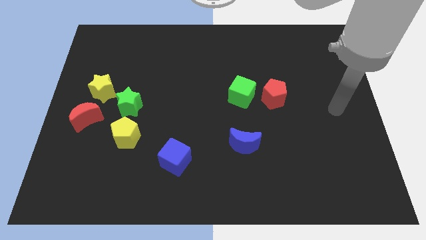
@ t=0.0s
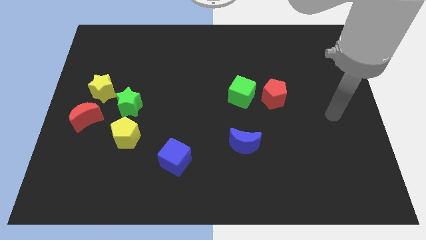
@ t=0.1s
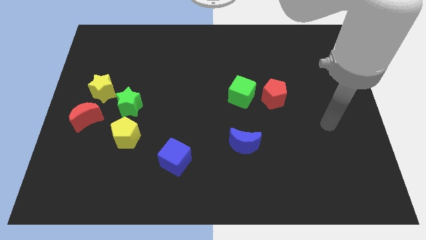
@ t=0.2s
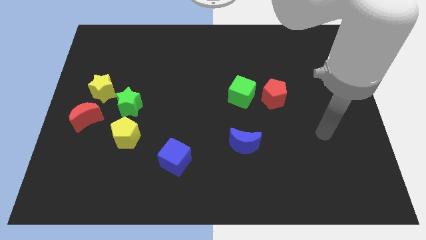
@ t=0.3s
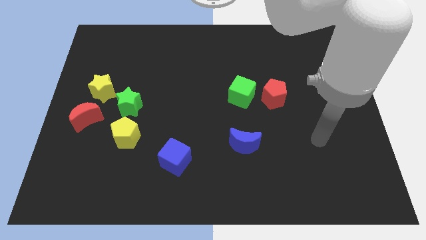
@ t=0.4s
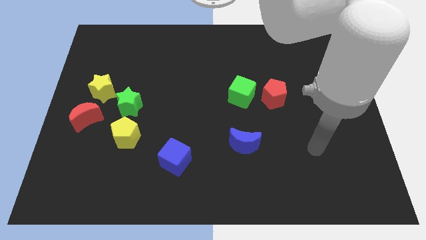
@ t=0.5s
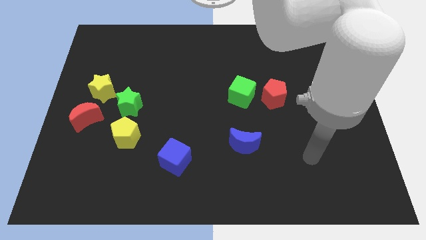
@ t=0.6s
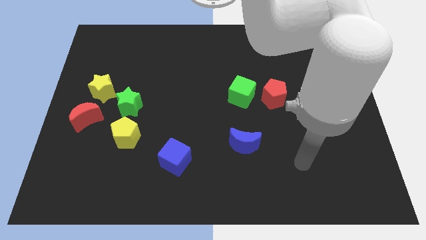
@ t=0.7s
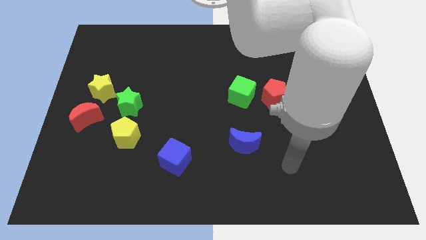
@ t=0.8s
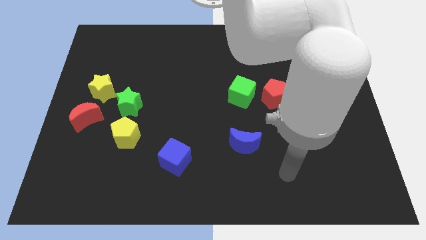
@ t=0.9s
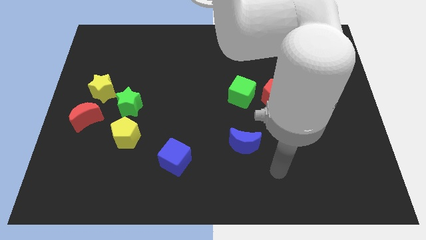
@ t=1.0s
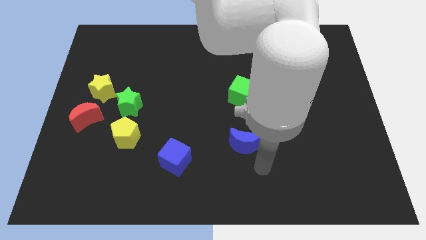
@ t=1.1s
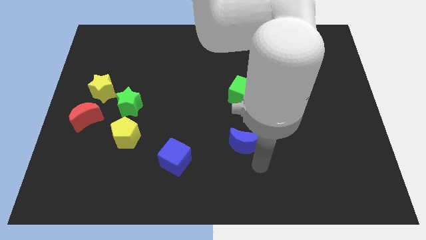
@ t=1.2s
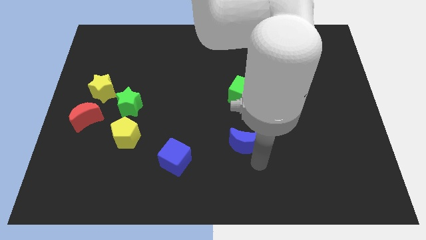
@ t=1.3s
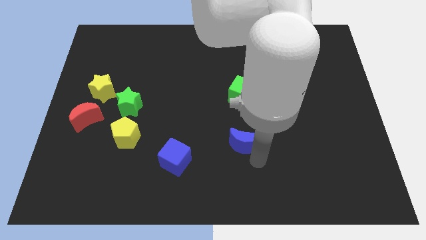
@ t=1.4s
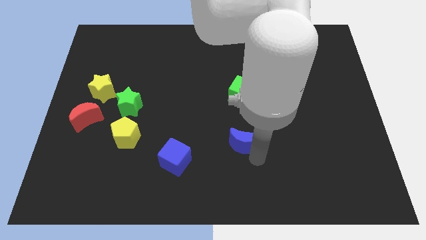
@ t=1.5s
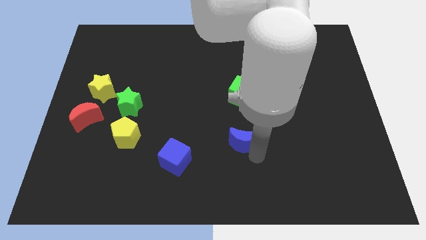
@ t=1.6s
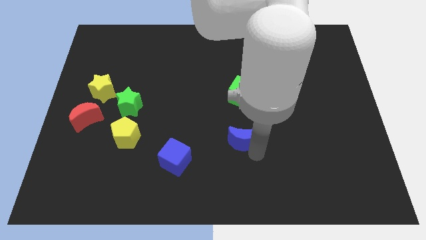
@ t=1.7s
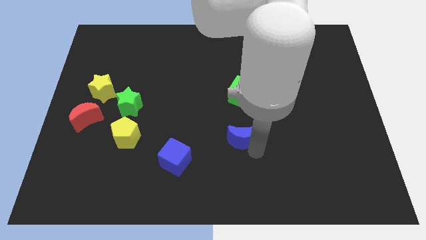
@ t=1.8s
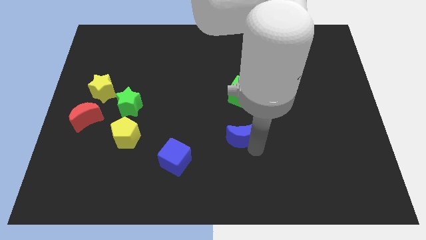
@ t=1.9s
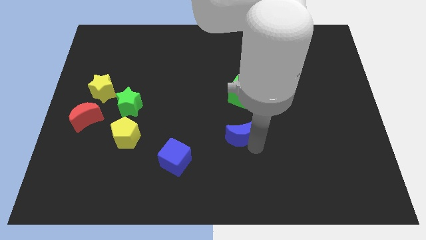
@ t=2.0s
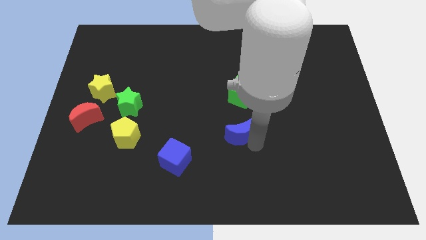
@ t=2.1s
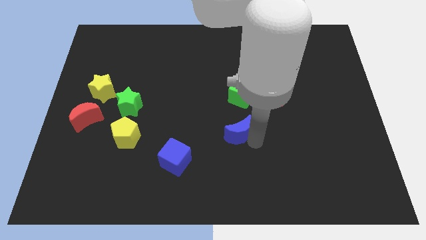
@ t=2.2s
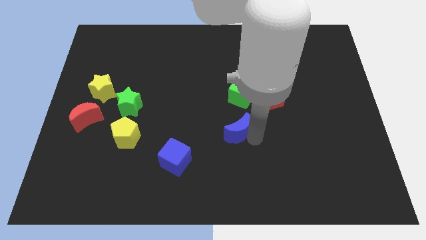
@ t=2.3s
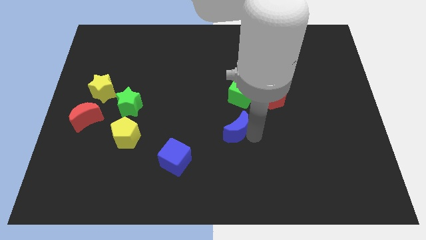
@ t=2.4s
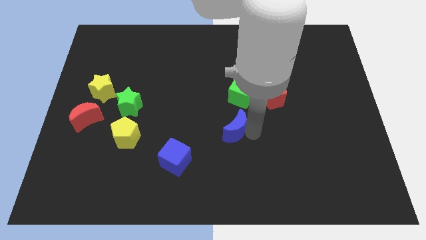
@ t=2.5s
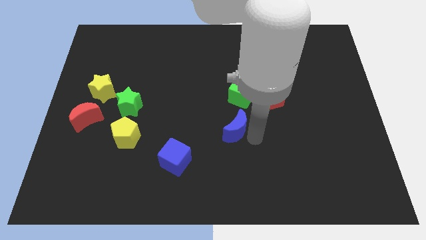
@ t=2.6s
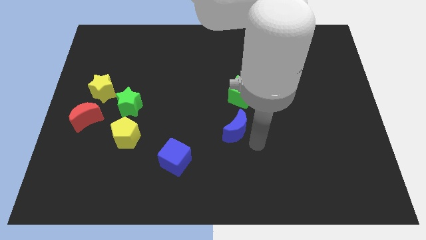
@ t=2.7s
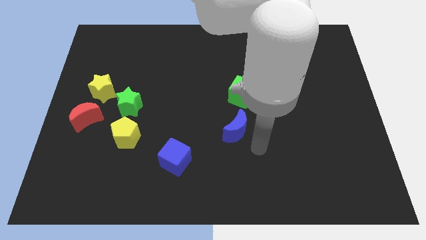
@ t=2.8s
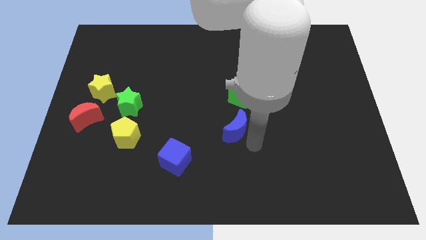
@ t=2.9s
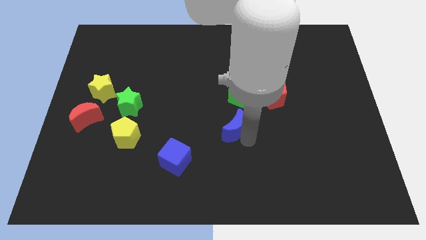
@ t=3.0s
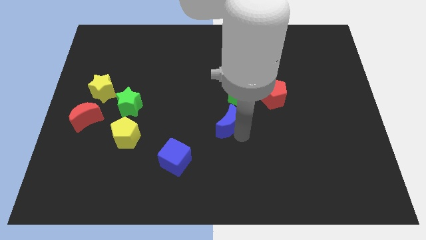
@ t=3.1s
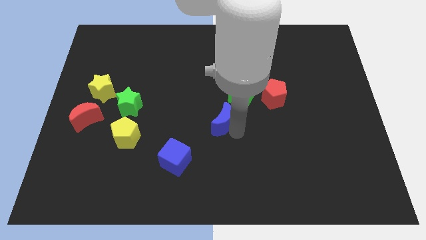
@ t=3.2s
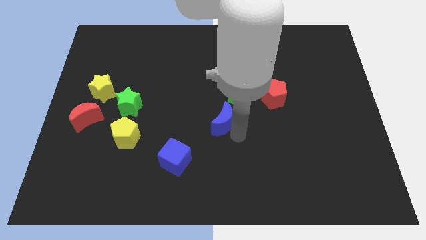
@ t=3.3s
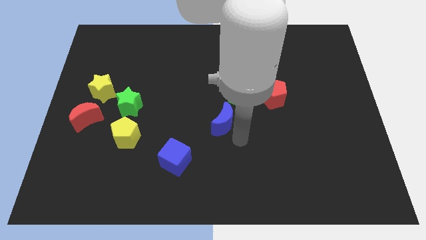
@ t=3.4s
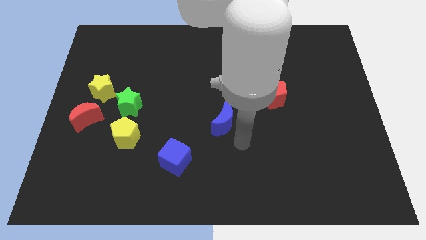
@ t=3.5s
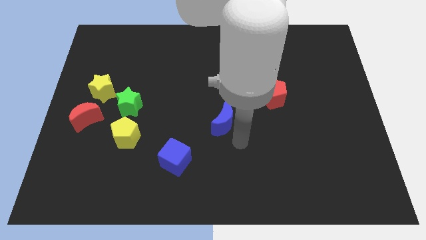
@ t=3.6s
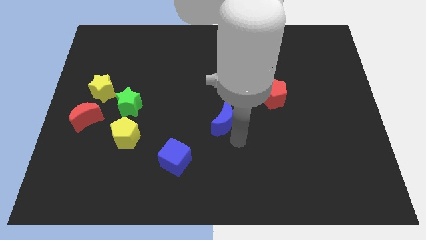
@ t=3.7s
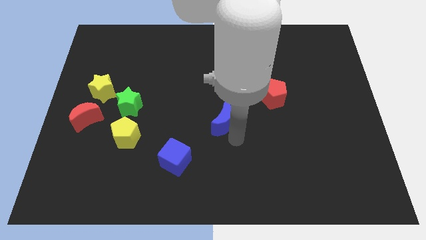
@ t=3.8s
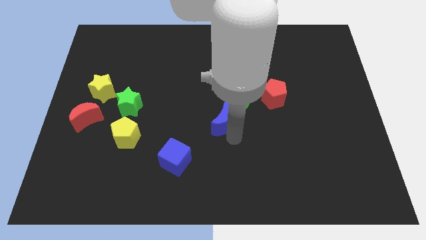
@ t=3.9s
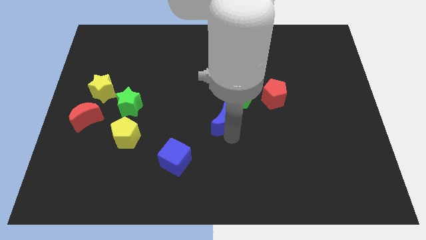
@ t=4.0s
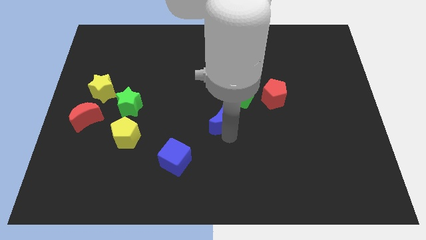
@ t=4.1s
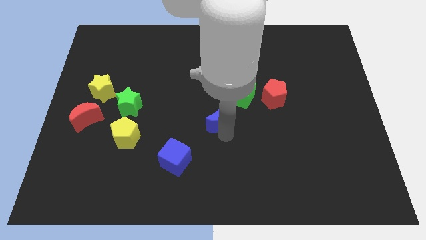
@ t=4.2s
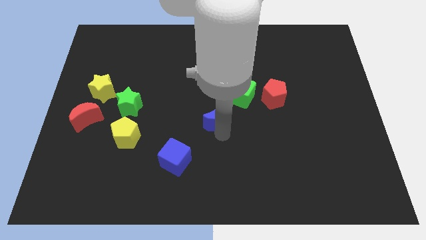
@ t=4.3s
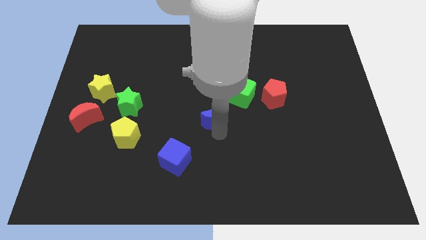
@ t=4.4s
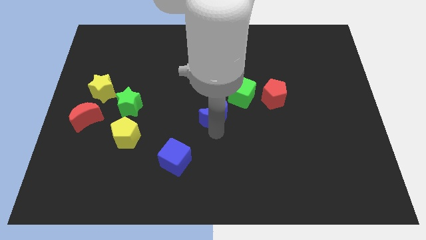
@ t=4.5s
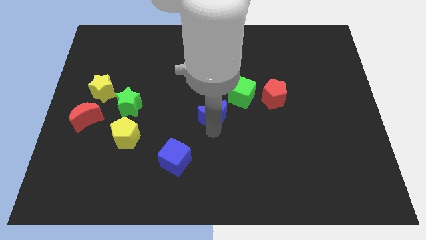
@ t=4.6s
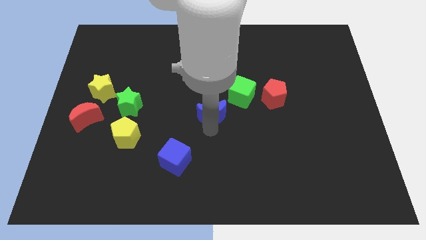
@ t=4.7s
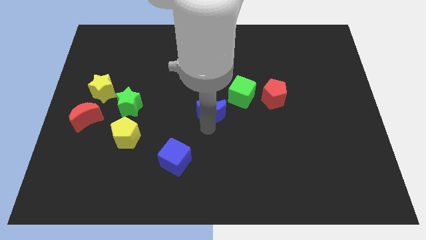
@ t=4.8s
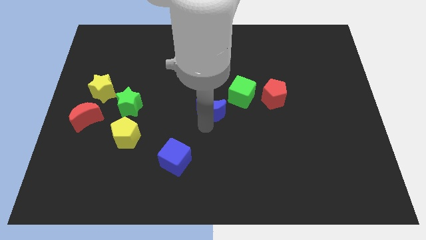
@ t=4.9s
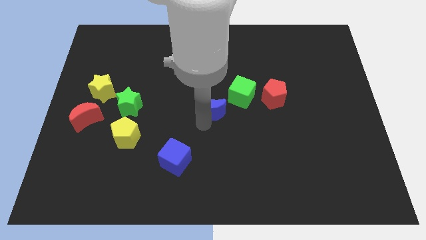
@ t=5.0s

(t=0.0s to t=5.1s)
push the blue moon upwards a bit

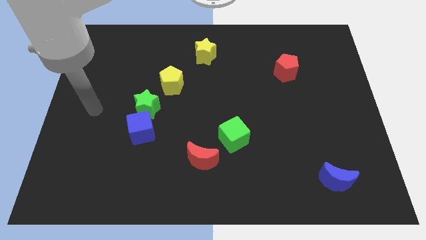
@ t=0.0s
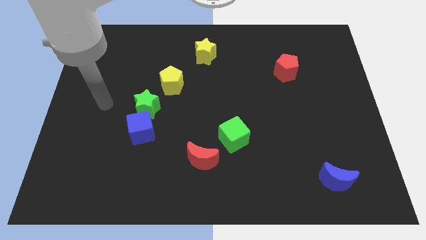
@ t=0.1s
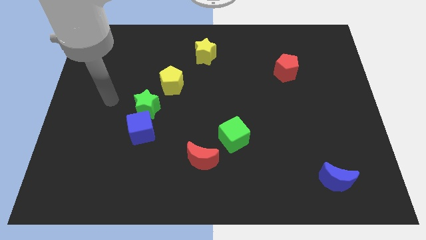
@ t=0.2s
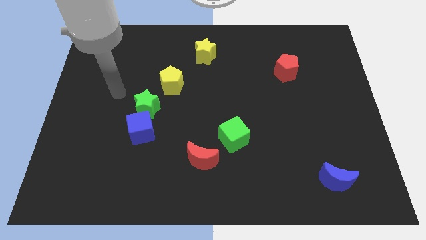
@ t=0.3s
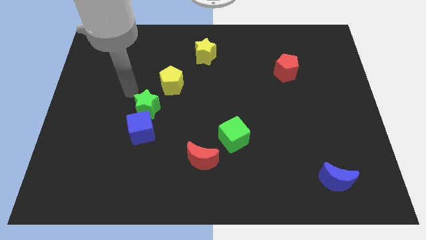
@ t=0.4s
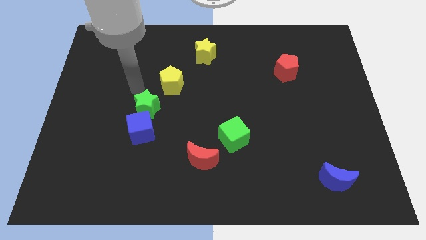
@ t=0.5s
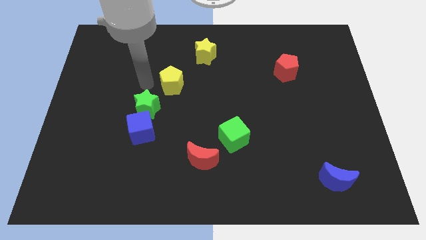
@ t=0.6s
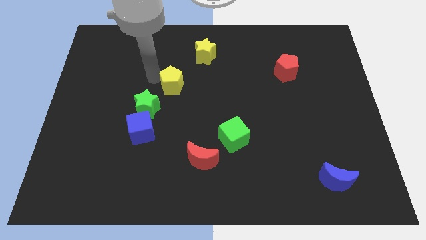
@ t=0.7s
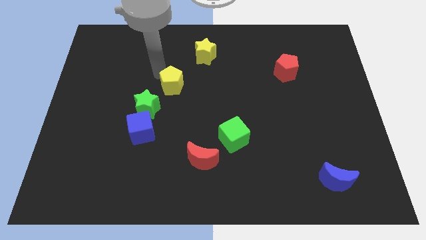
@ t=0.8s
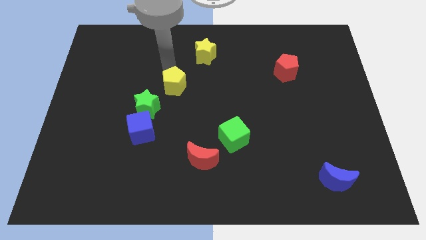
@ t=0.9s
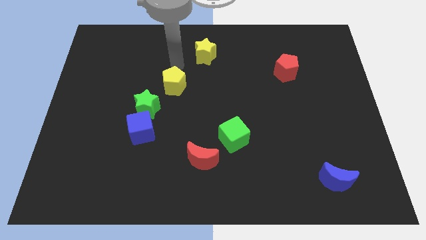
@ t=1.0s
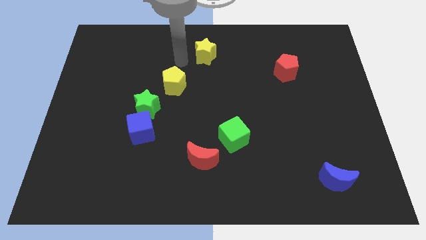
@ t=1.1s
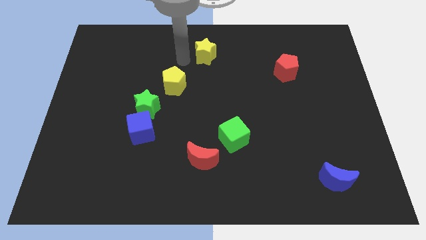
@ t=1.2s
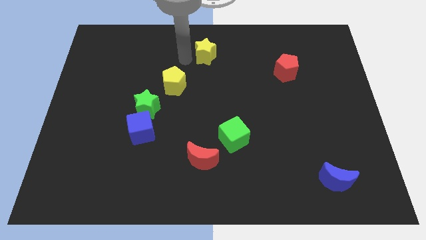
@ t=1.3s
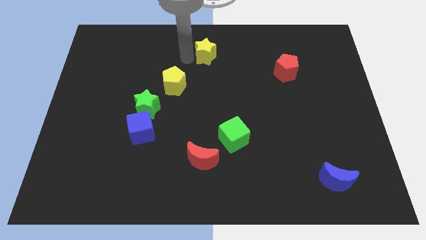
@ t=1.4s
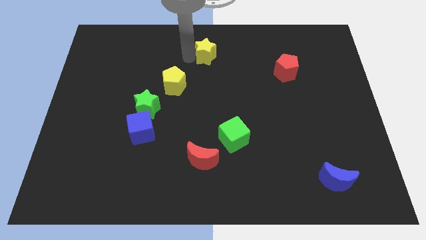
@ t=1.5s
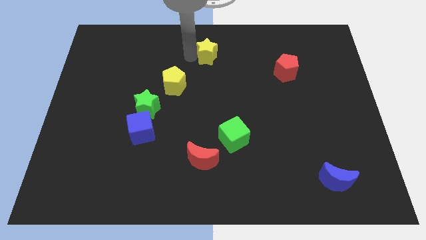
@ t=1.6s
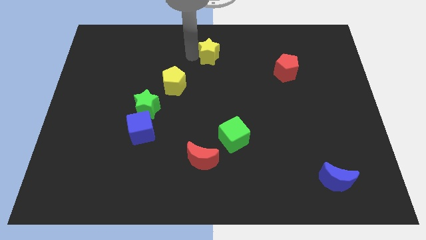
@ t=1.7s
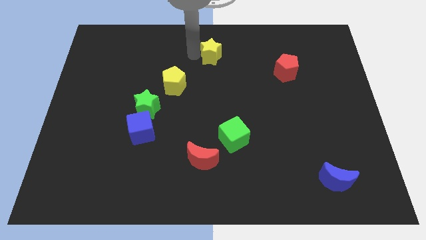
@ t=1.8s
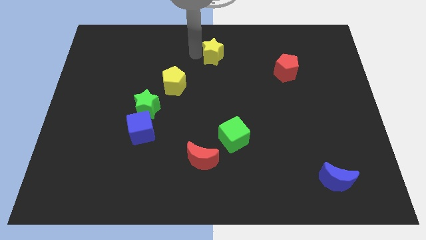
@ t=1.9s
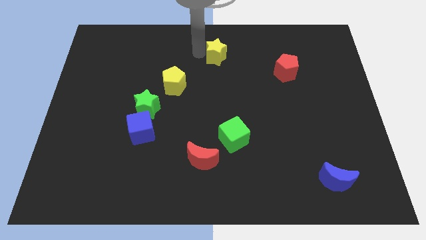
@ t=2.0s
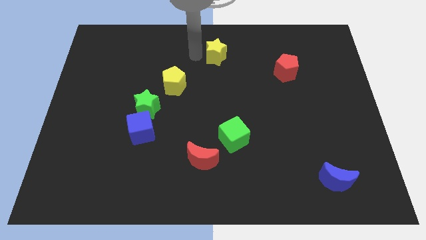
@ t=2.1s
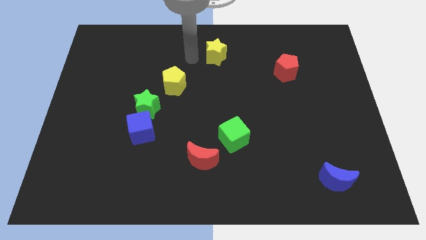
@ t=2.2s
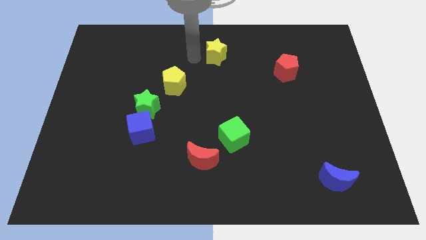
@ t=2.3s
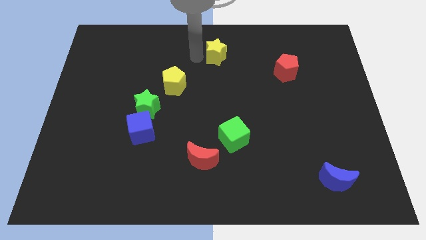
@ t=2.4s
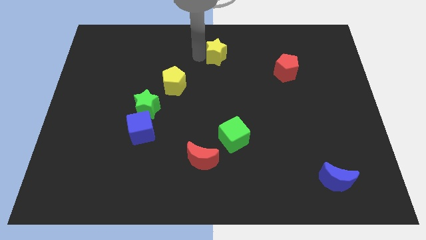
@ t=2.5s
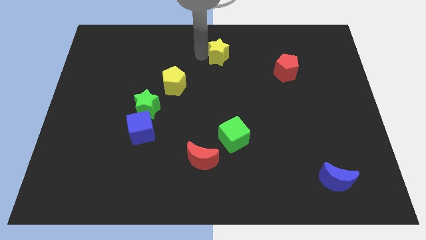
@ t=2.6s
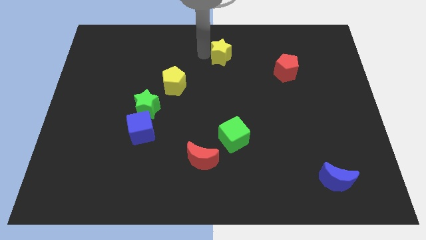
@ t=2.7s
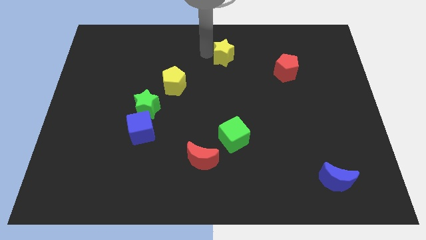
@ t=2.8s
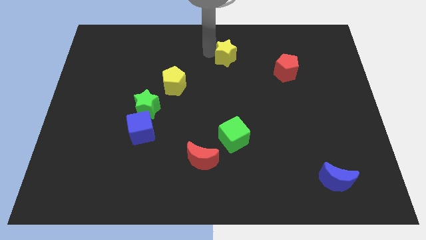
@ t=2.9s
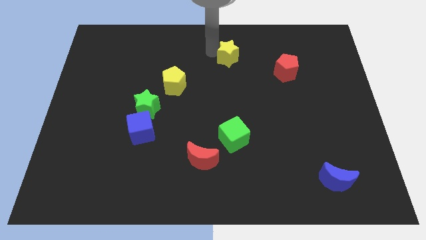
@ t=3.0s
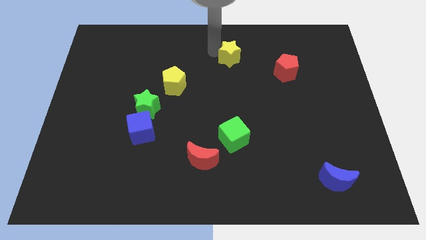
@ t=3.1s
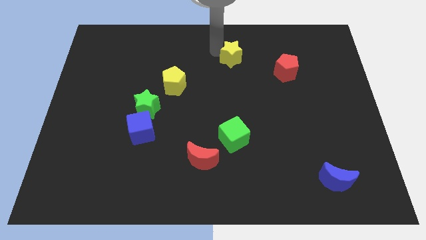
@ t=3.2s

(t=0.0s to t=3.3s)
slightly push the yellow star to the right
